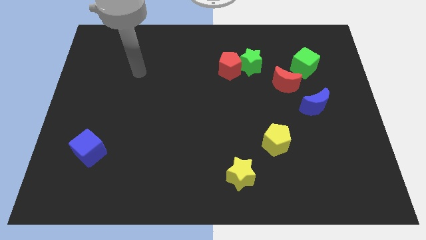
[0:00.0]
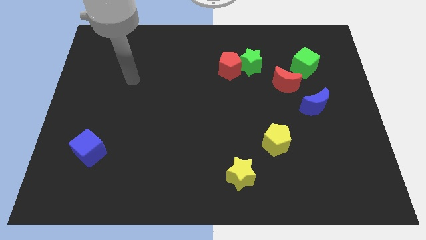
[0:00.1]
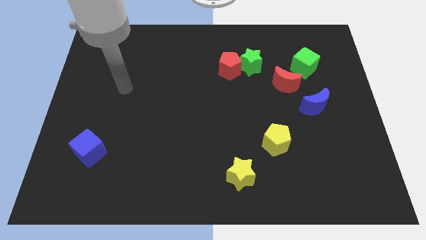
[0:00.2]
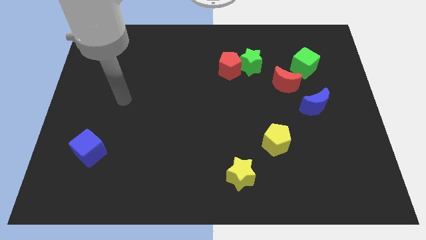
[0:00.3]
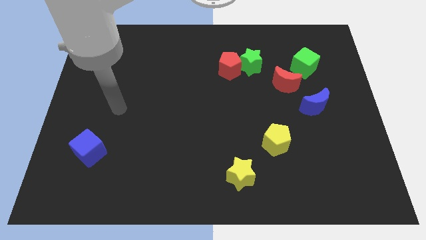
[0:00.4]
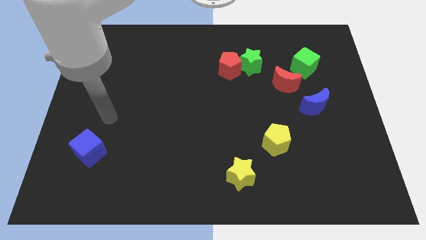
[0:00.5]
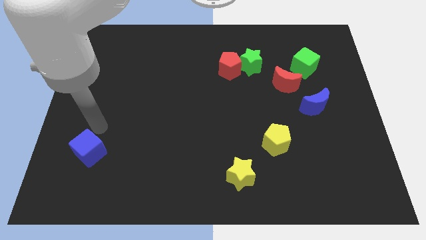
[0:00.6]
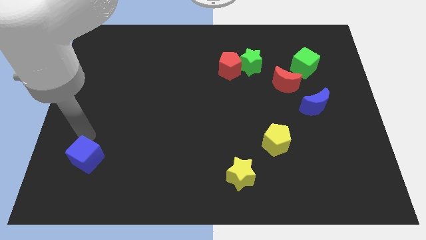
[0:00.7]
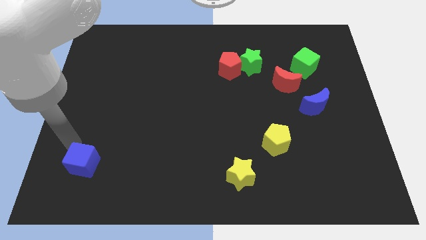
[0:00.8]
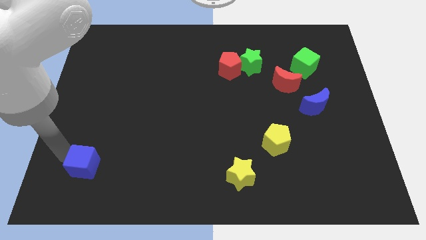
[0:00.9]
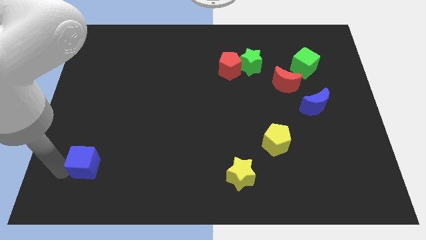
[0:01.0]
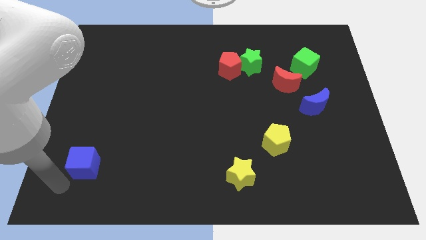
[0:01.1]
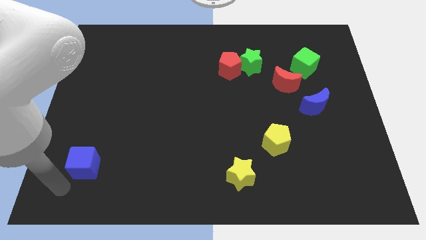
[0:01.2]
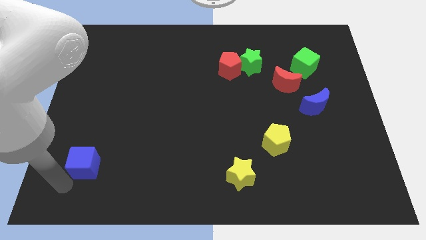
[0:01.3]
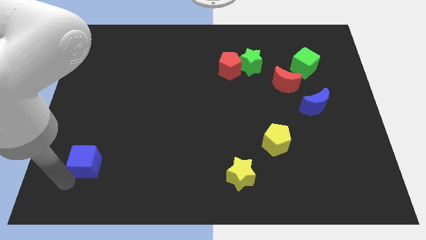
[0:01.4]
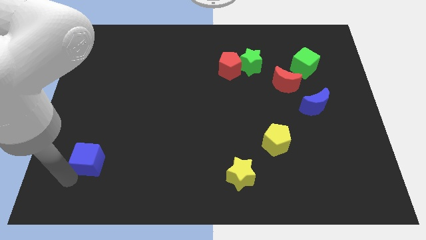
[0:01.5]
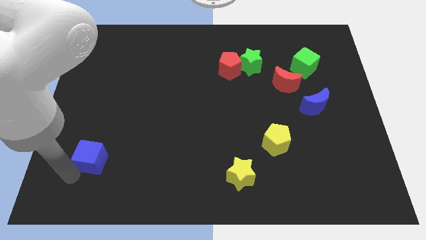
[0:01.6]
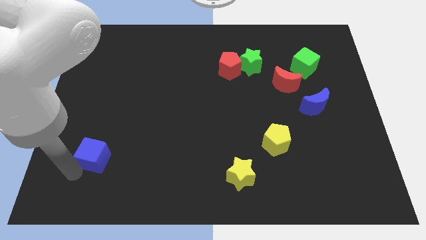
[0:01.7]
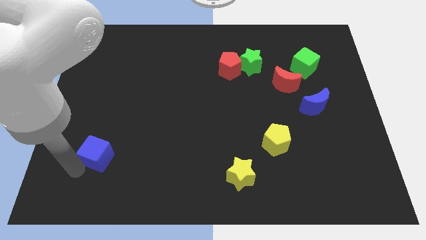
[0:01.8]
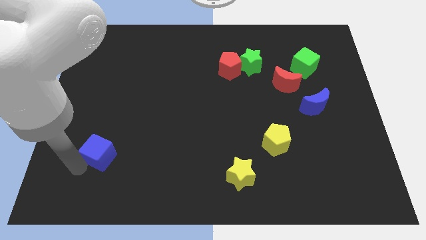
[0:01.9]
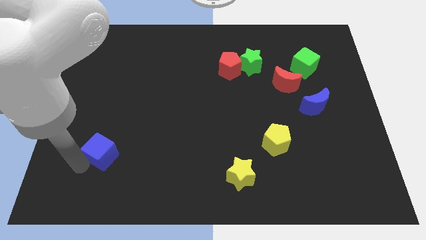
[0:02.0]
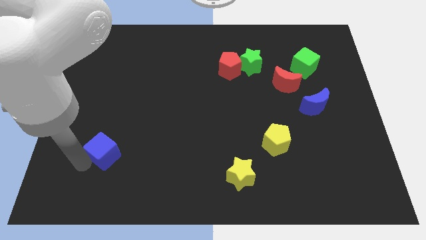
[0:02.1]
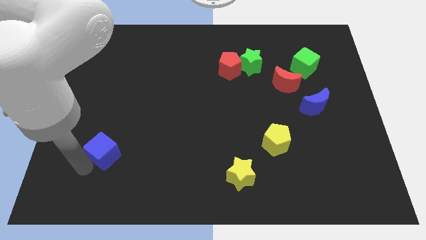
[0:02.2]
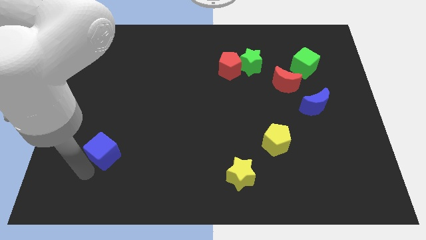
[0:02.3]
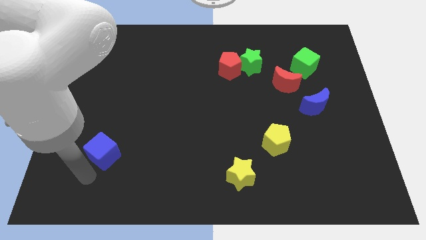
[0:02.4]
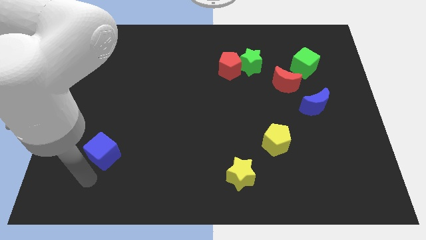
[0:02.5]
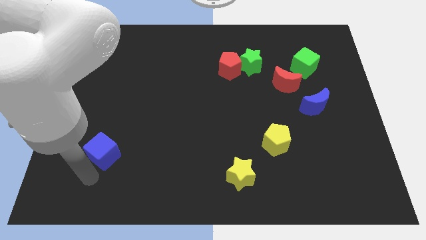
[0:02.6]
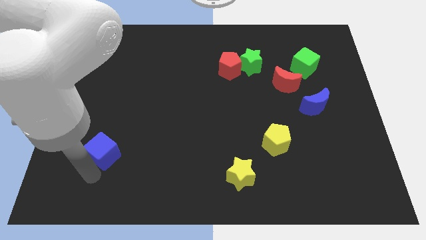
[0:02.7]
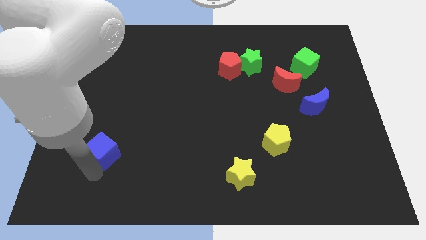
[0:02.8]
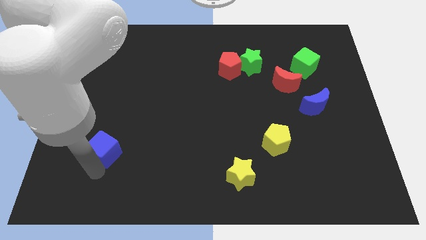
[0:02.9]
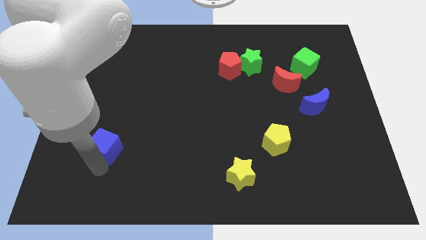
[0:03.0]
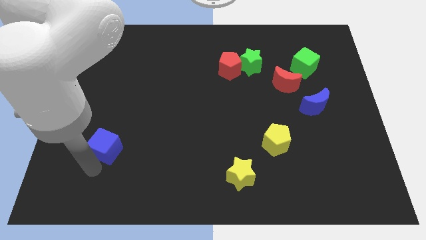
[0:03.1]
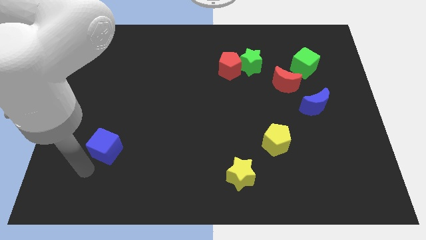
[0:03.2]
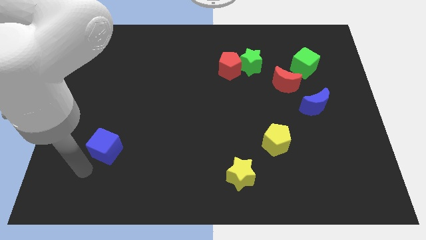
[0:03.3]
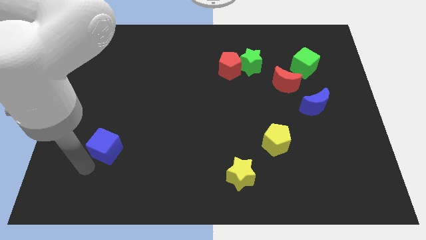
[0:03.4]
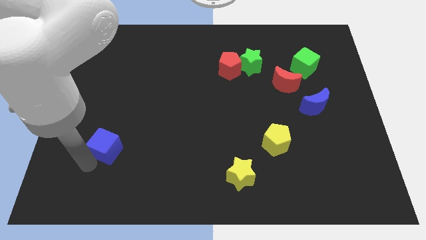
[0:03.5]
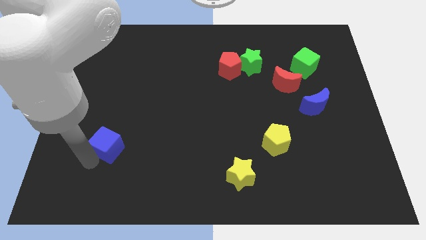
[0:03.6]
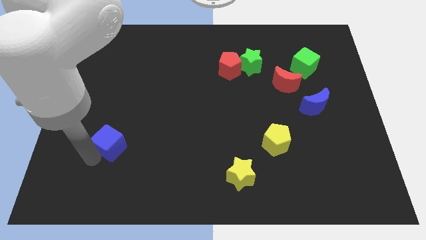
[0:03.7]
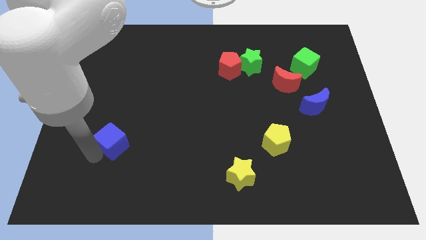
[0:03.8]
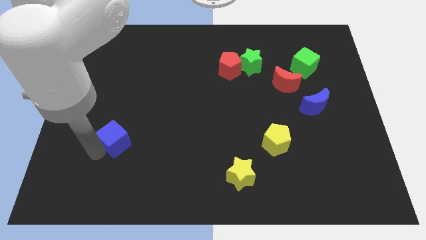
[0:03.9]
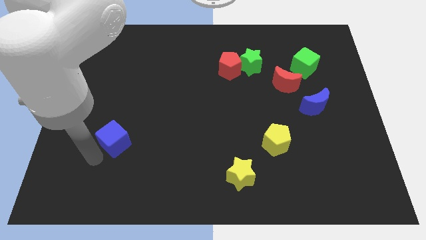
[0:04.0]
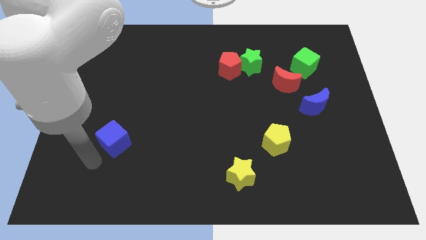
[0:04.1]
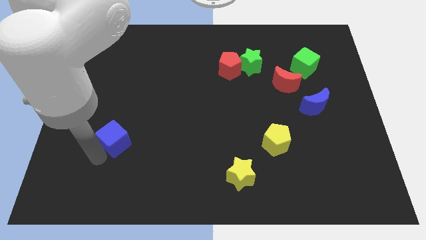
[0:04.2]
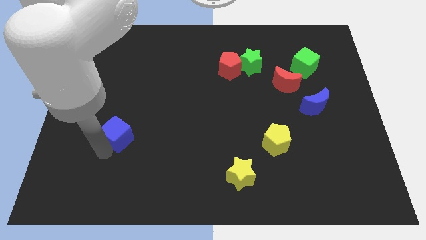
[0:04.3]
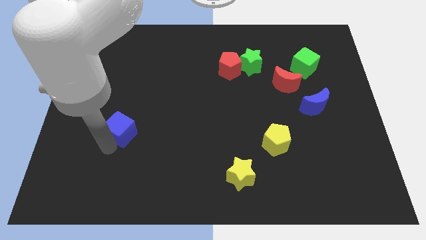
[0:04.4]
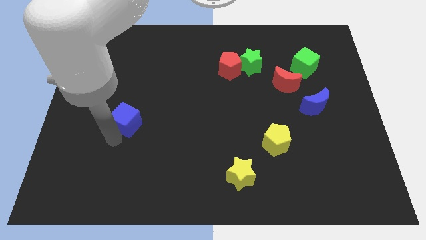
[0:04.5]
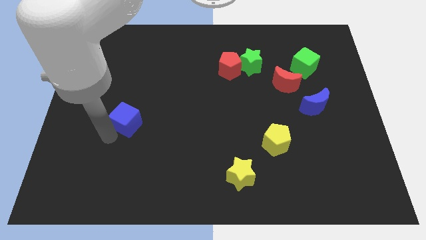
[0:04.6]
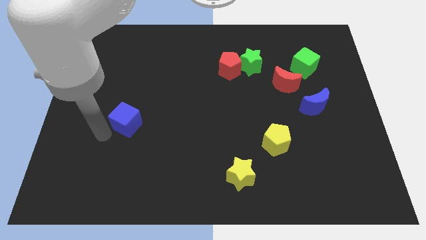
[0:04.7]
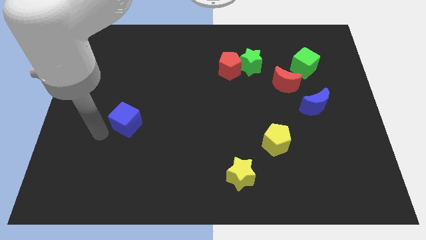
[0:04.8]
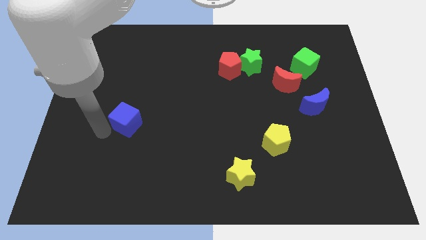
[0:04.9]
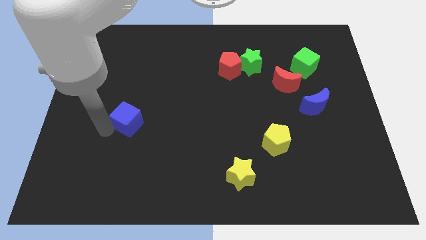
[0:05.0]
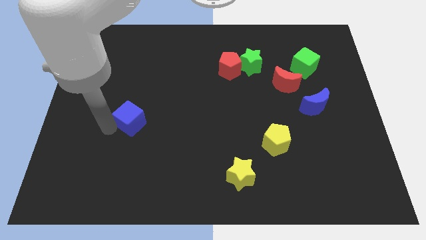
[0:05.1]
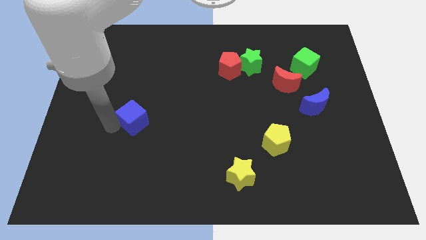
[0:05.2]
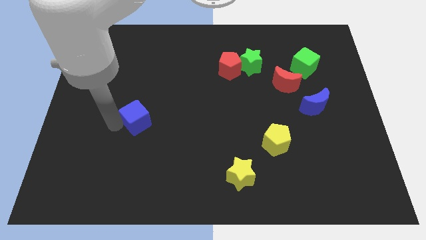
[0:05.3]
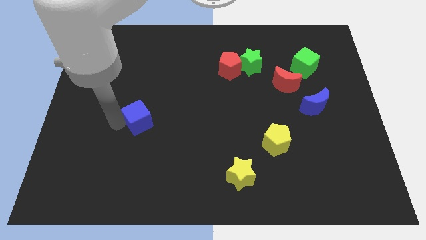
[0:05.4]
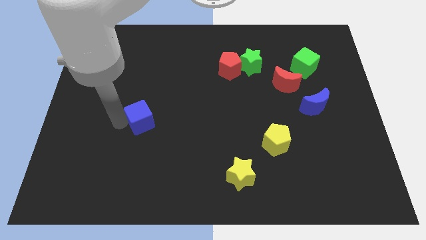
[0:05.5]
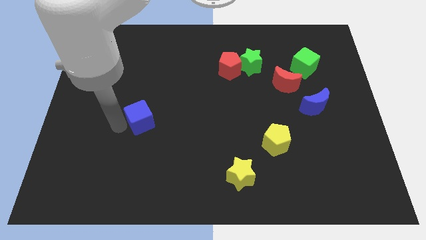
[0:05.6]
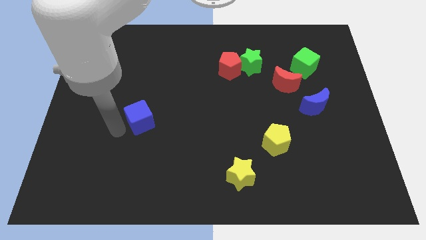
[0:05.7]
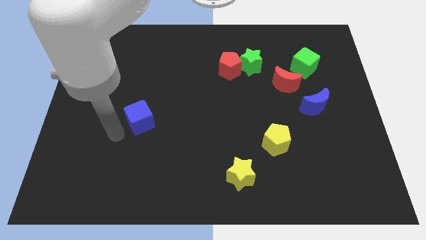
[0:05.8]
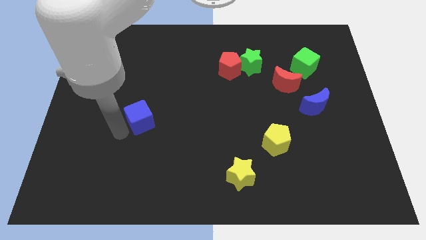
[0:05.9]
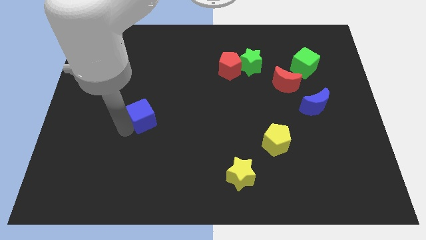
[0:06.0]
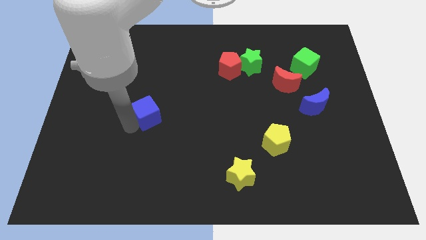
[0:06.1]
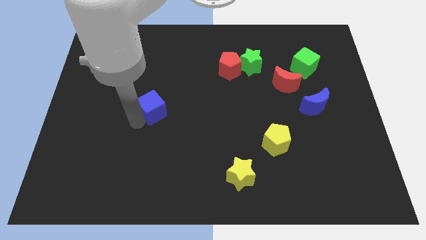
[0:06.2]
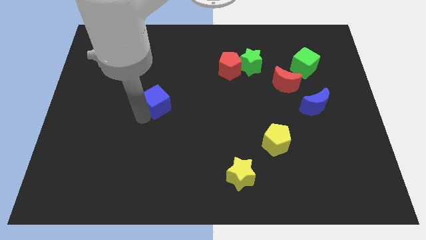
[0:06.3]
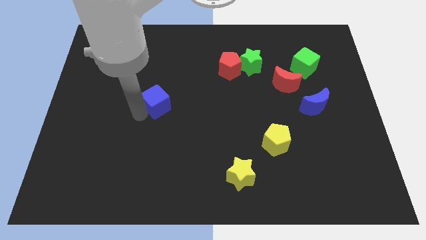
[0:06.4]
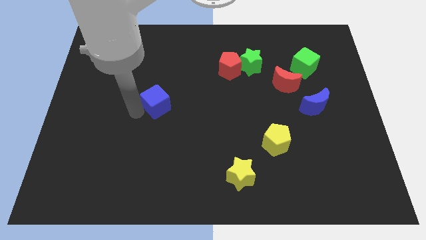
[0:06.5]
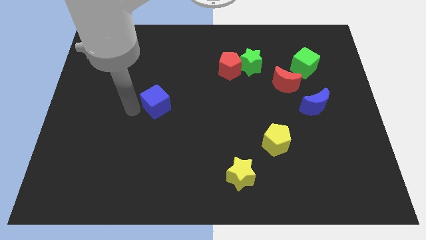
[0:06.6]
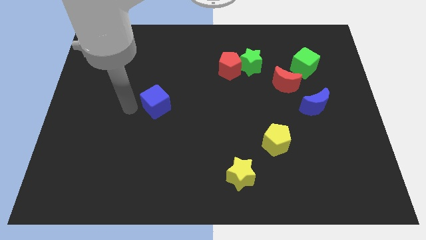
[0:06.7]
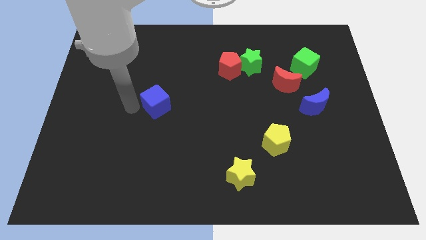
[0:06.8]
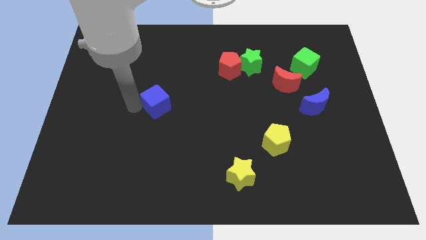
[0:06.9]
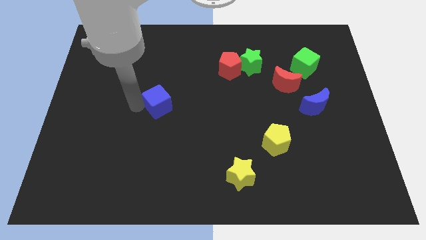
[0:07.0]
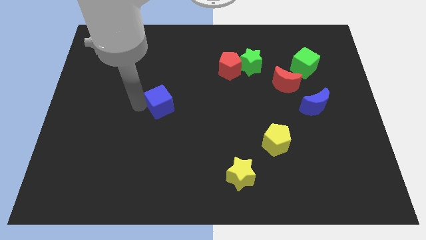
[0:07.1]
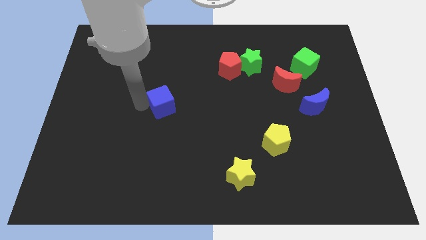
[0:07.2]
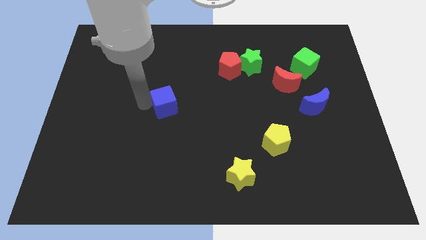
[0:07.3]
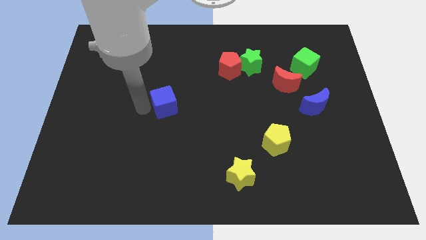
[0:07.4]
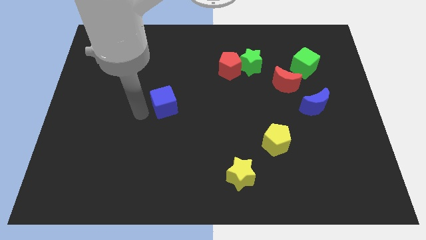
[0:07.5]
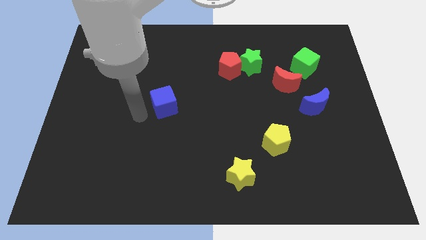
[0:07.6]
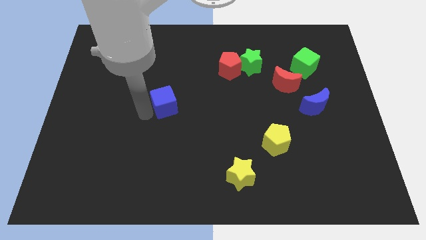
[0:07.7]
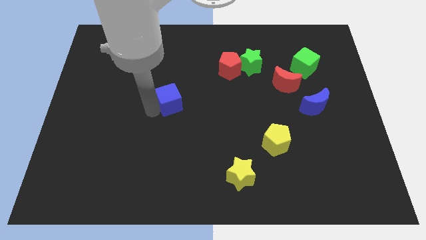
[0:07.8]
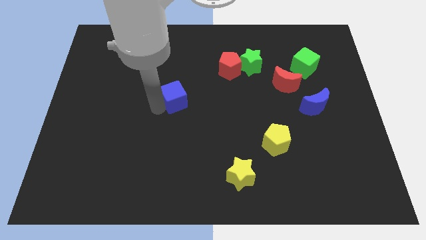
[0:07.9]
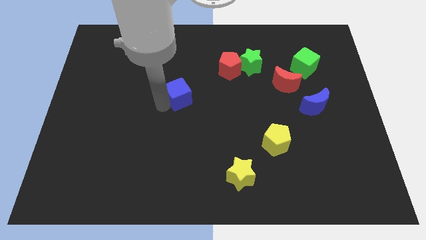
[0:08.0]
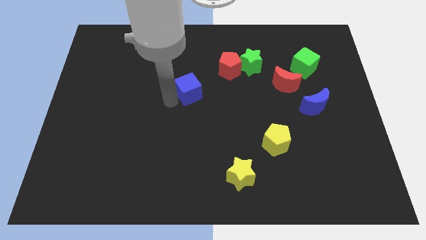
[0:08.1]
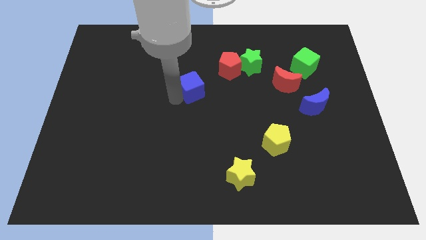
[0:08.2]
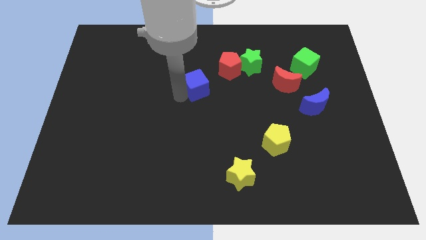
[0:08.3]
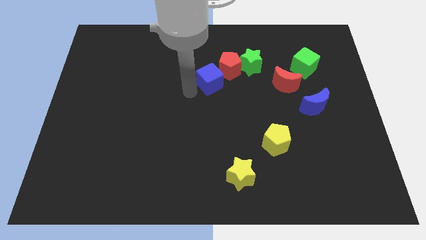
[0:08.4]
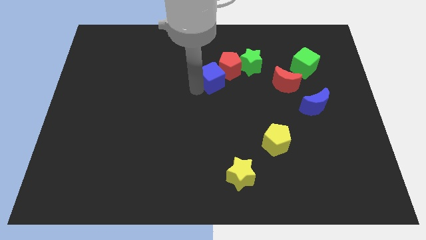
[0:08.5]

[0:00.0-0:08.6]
move the blue cube towards the red pentagon
